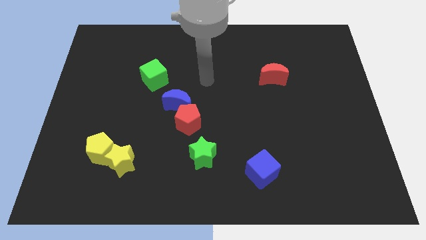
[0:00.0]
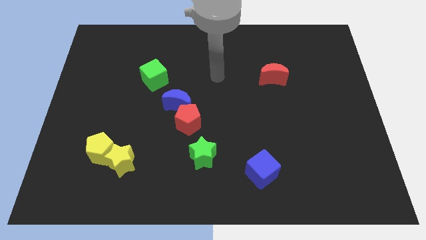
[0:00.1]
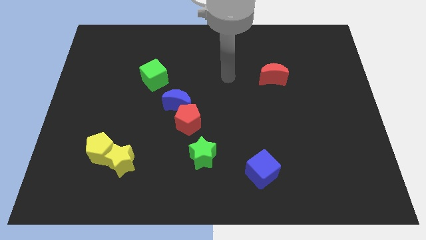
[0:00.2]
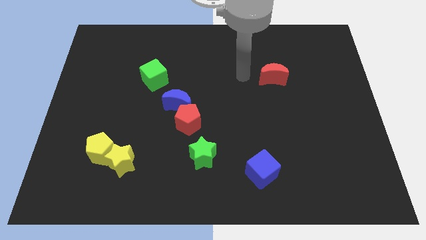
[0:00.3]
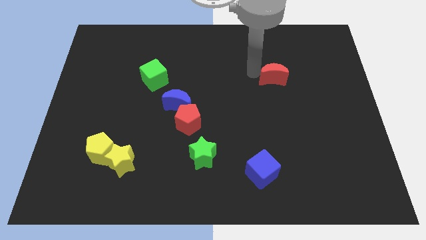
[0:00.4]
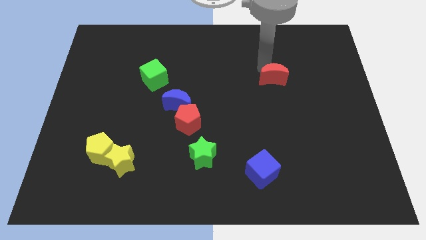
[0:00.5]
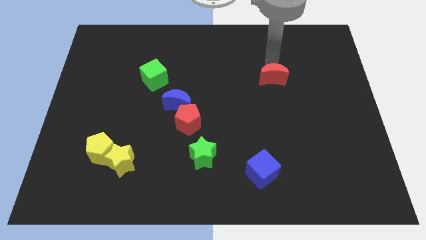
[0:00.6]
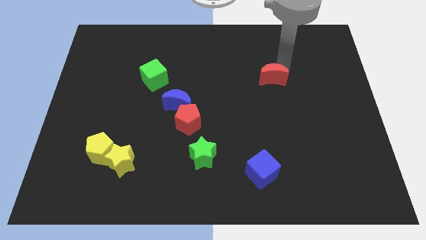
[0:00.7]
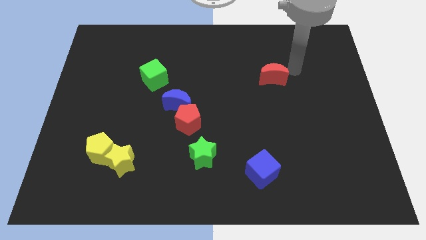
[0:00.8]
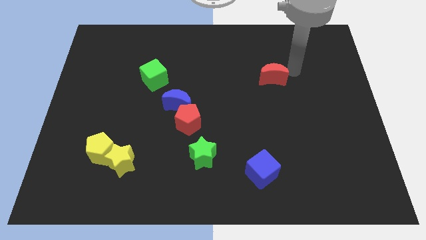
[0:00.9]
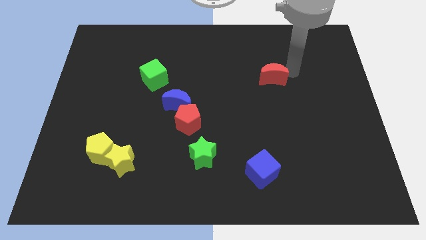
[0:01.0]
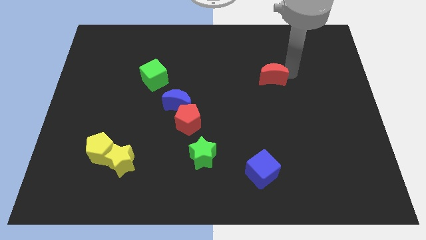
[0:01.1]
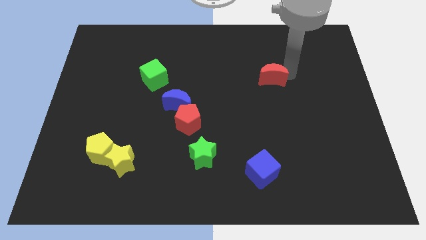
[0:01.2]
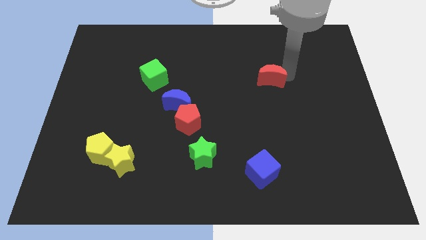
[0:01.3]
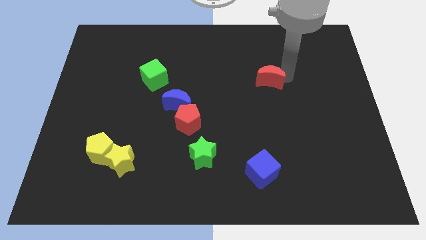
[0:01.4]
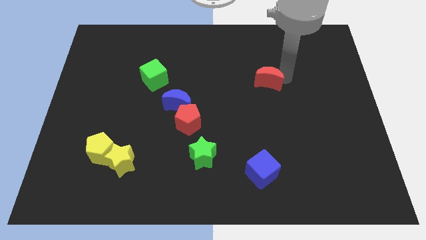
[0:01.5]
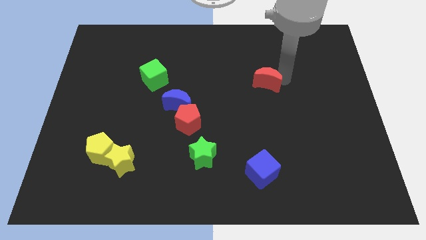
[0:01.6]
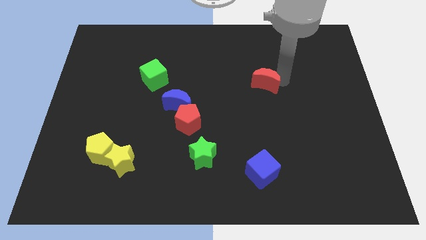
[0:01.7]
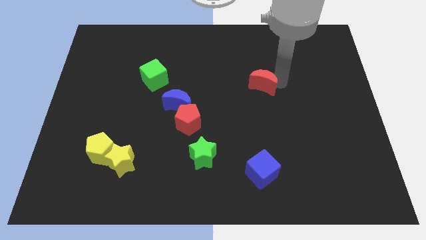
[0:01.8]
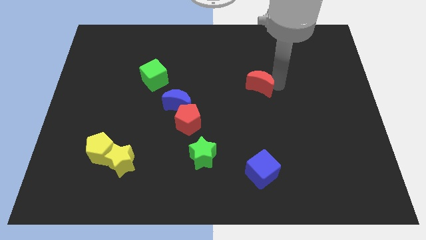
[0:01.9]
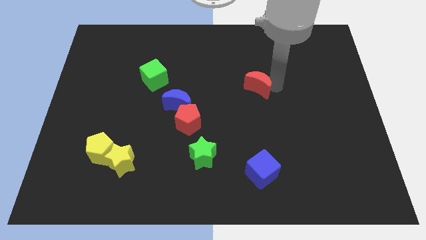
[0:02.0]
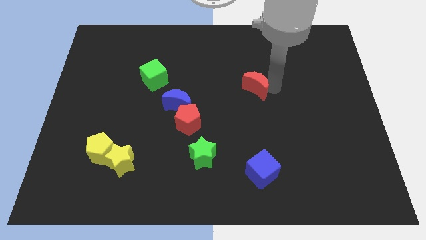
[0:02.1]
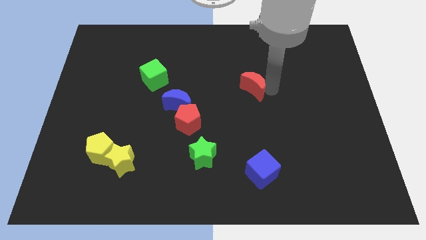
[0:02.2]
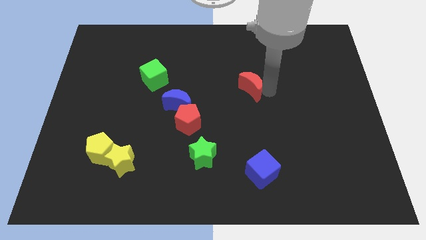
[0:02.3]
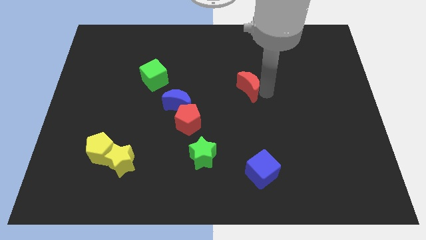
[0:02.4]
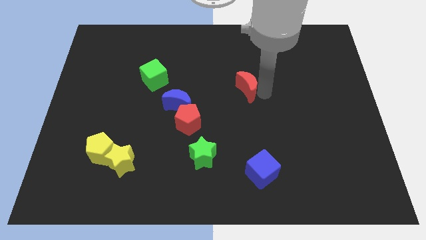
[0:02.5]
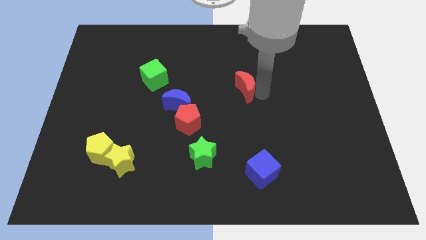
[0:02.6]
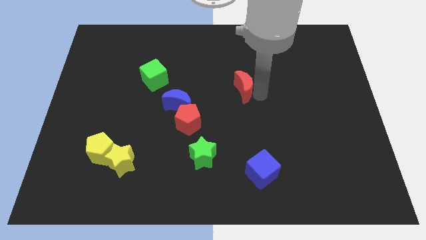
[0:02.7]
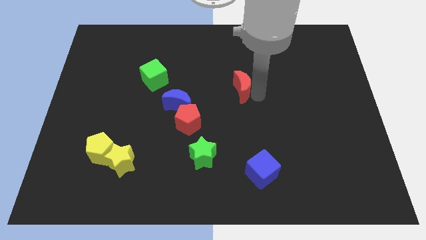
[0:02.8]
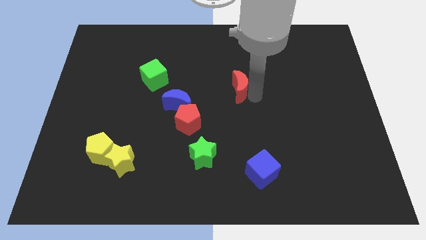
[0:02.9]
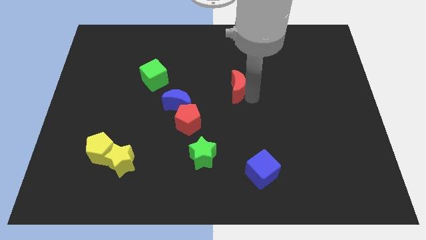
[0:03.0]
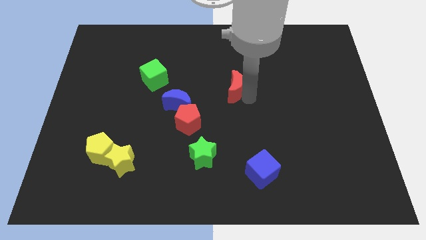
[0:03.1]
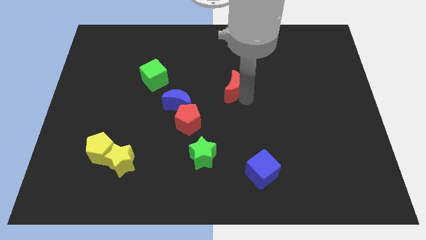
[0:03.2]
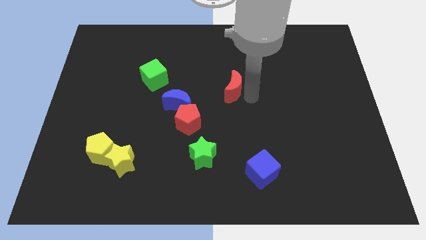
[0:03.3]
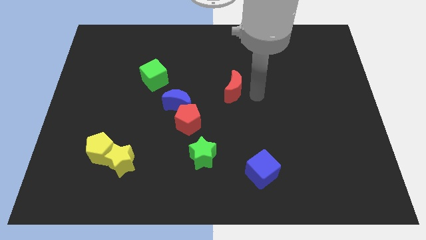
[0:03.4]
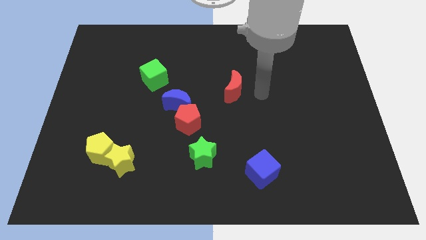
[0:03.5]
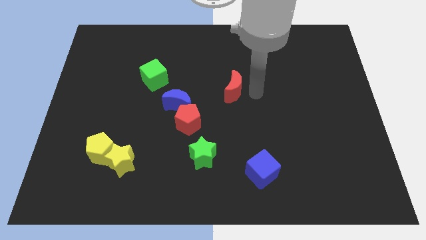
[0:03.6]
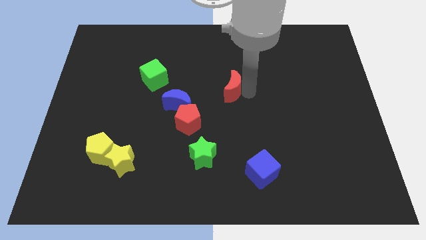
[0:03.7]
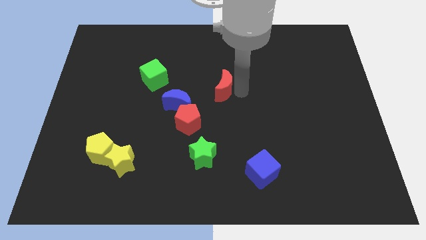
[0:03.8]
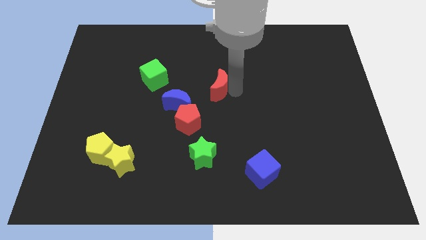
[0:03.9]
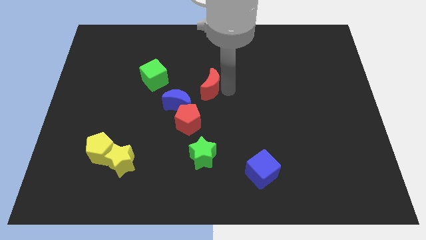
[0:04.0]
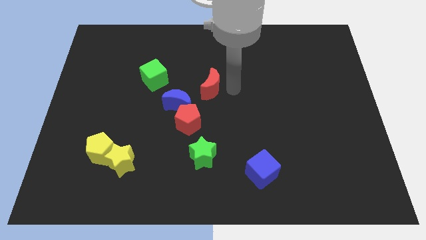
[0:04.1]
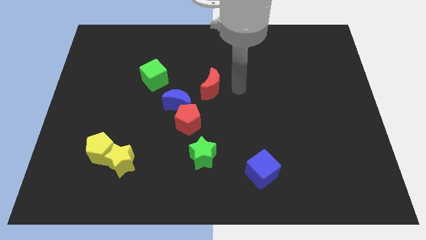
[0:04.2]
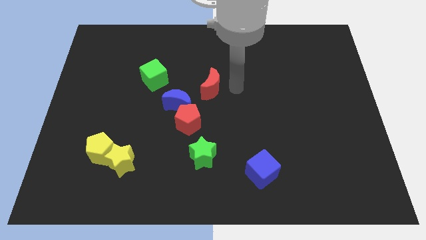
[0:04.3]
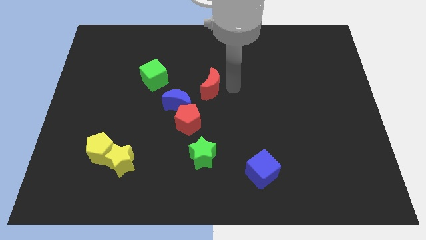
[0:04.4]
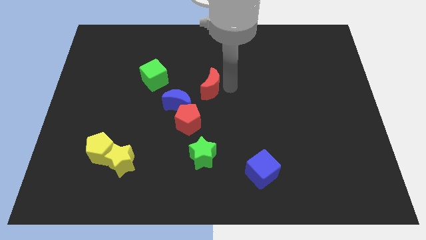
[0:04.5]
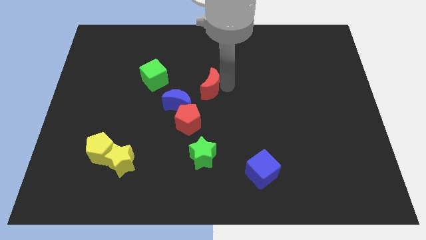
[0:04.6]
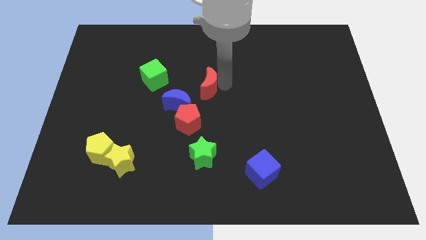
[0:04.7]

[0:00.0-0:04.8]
slide the red moon to the top of the red pentagon

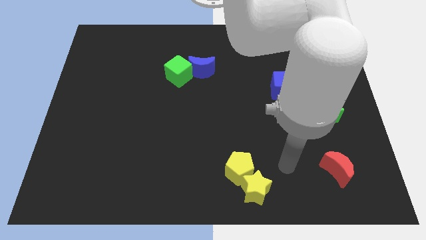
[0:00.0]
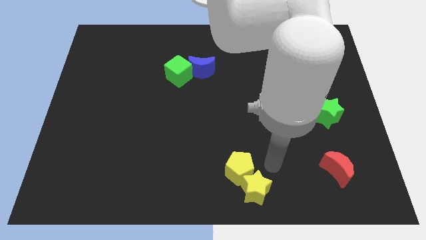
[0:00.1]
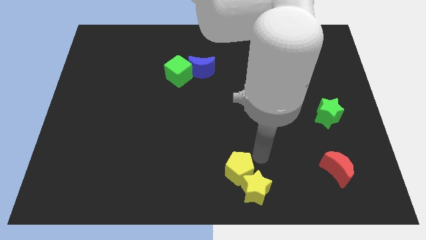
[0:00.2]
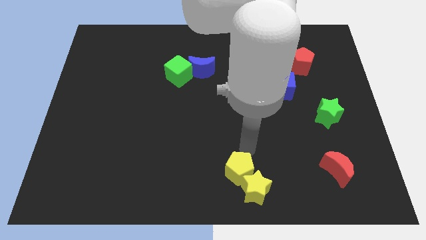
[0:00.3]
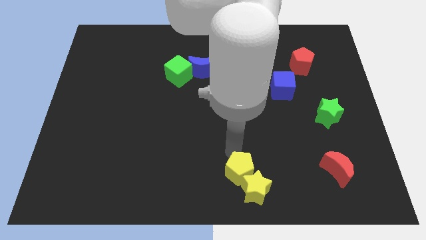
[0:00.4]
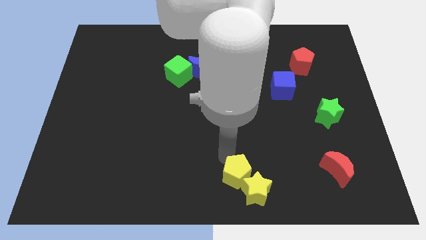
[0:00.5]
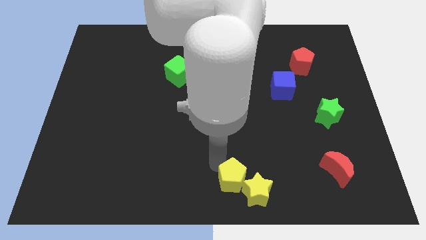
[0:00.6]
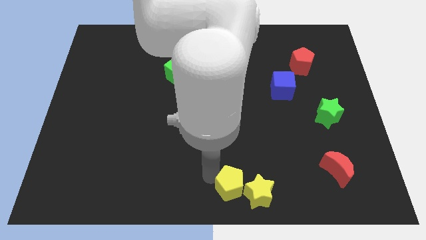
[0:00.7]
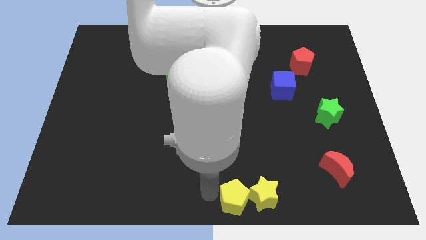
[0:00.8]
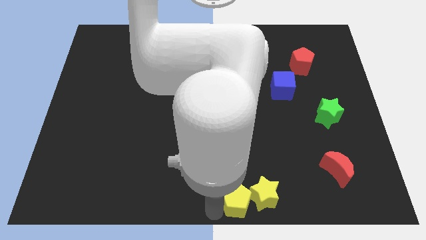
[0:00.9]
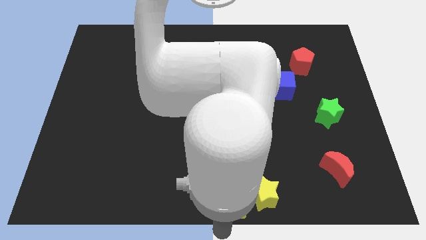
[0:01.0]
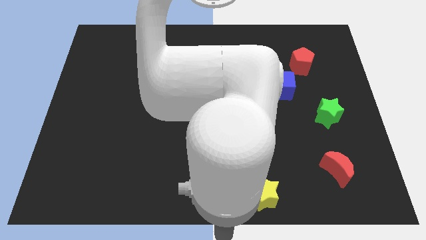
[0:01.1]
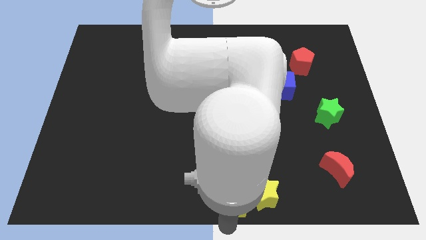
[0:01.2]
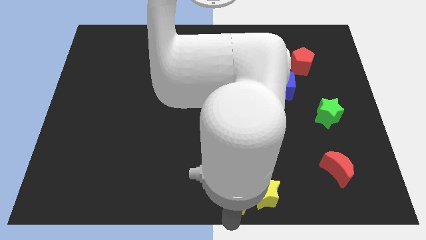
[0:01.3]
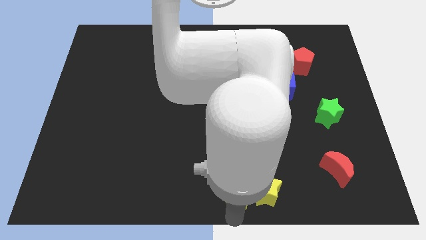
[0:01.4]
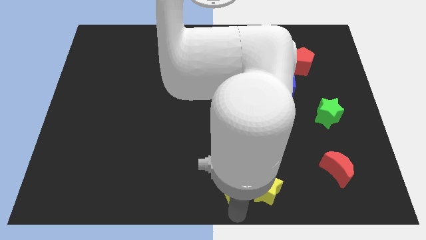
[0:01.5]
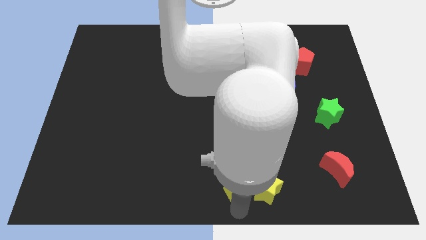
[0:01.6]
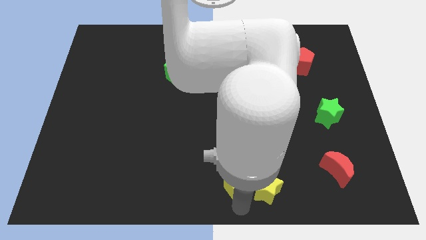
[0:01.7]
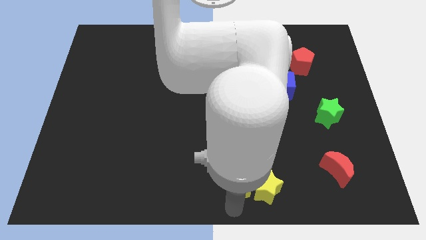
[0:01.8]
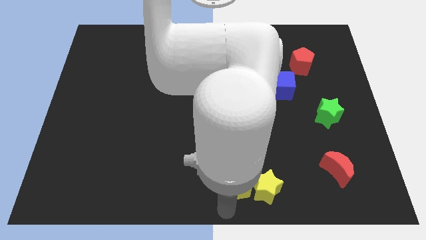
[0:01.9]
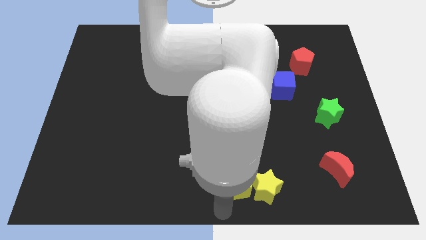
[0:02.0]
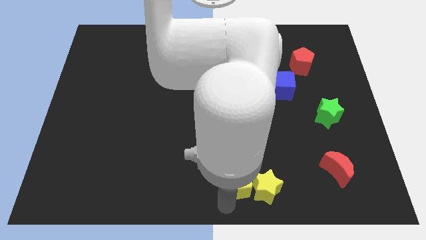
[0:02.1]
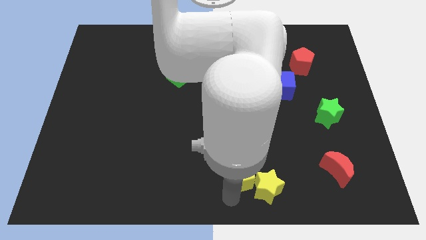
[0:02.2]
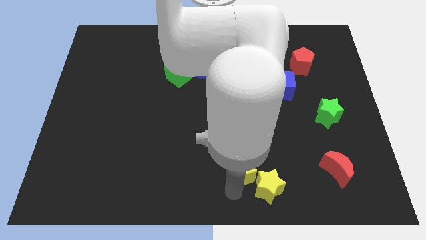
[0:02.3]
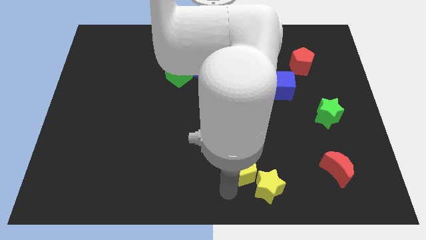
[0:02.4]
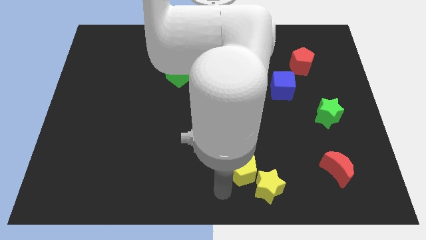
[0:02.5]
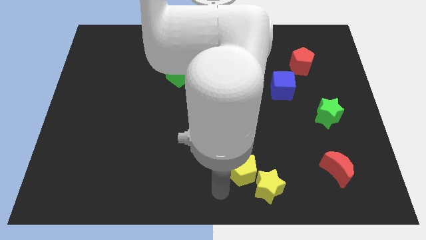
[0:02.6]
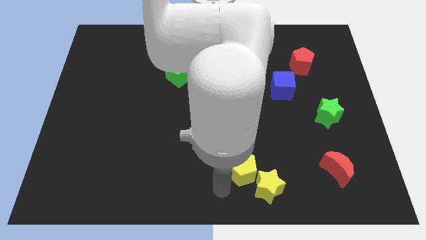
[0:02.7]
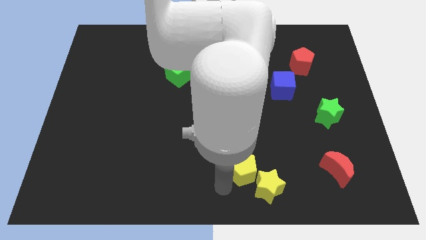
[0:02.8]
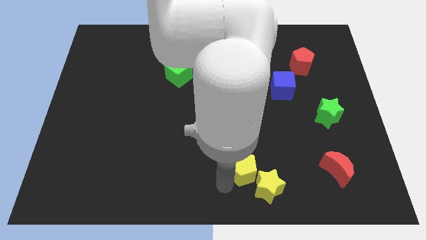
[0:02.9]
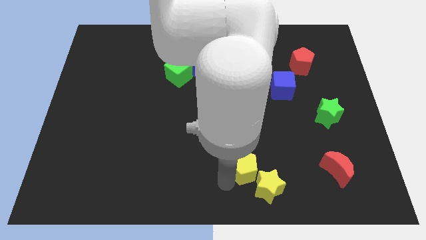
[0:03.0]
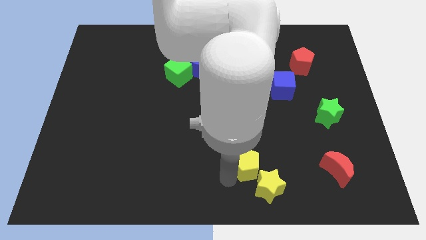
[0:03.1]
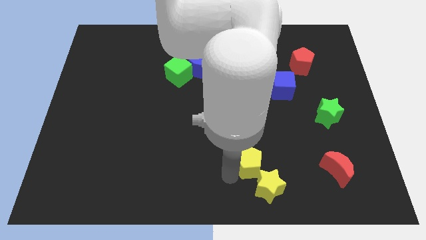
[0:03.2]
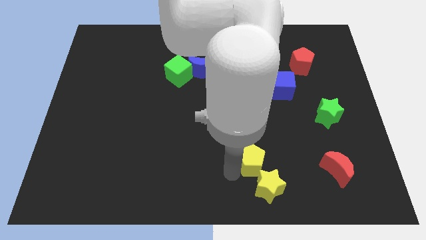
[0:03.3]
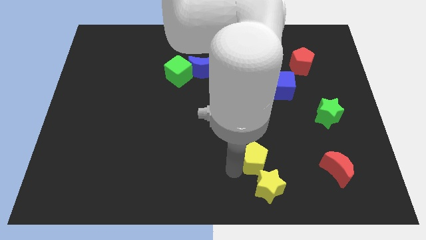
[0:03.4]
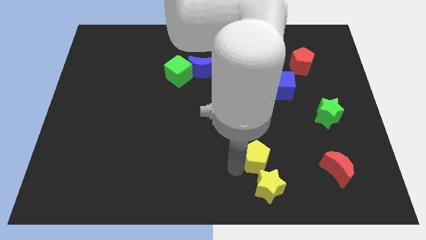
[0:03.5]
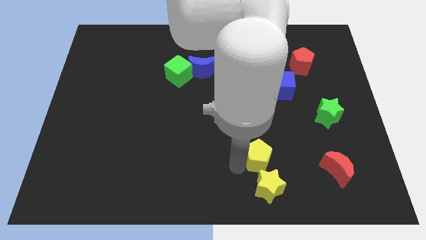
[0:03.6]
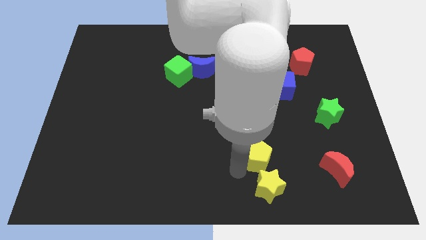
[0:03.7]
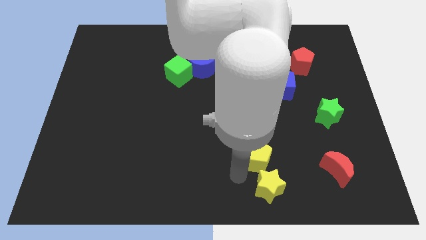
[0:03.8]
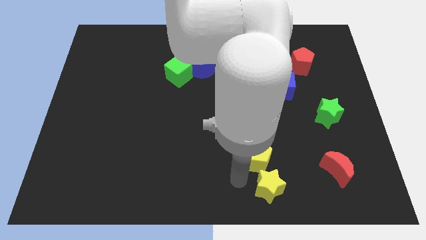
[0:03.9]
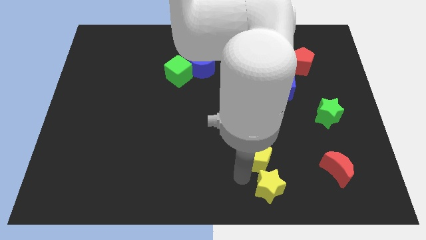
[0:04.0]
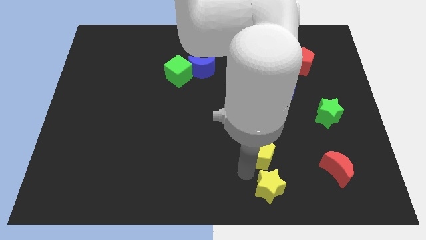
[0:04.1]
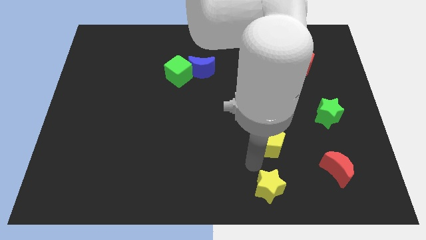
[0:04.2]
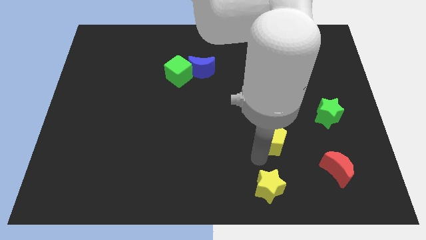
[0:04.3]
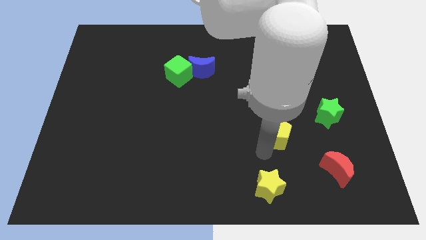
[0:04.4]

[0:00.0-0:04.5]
slide the yellow pentagon to the bottom of the blue cube
